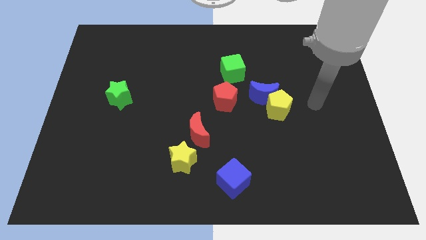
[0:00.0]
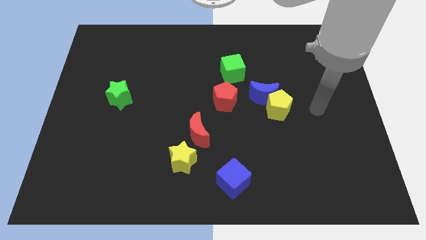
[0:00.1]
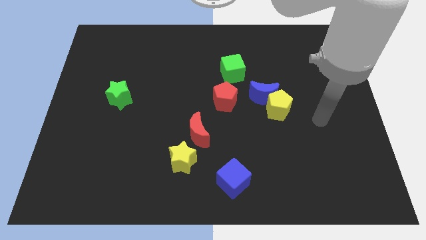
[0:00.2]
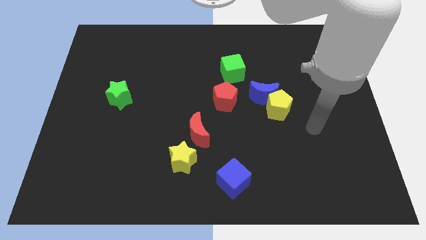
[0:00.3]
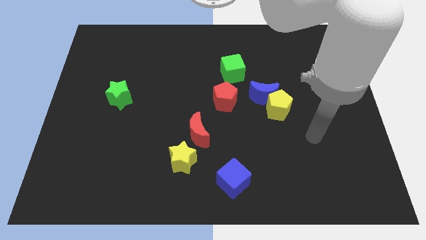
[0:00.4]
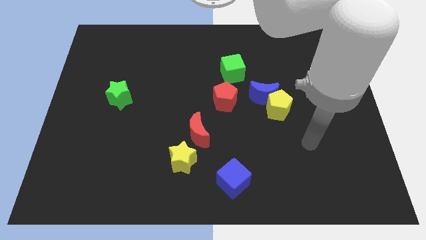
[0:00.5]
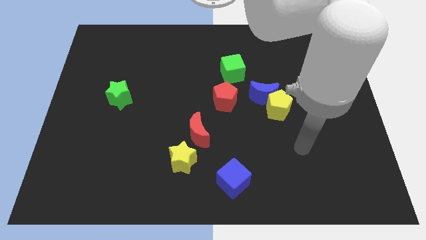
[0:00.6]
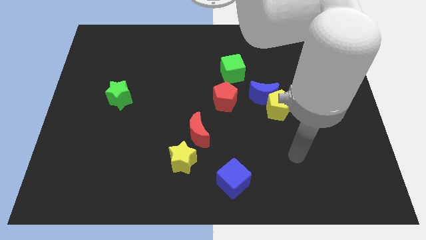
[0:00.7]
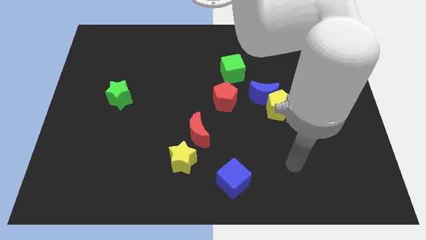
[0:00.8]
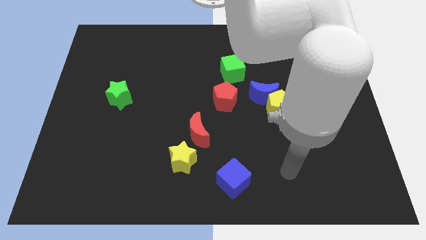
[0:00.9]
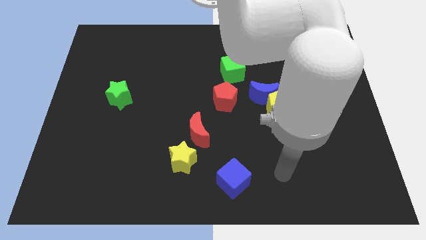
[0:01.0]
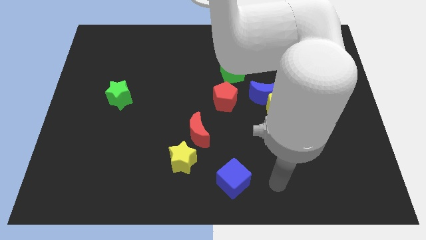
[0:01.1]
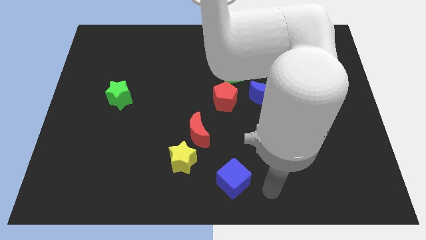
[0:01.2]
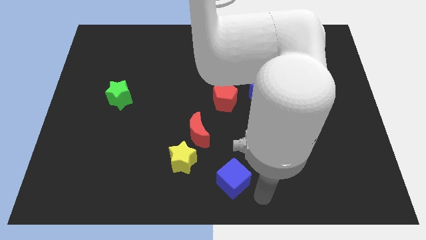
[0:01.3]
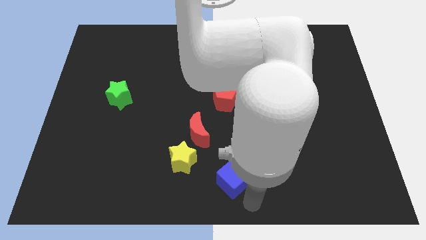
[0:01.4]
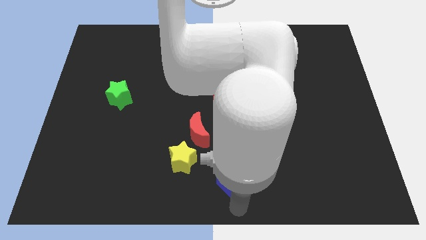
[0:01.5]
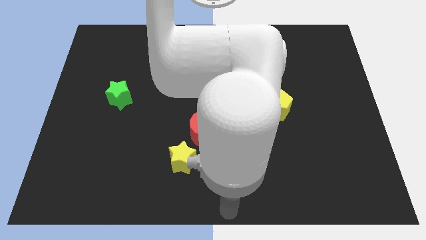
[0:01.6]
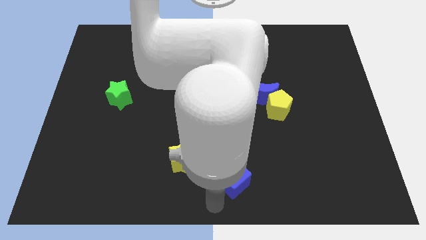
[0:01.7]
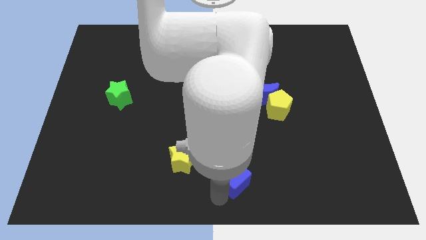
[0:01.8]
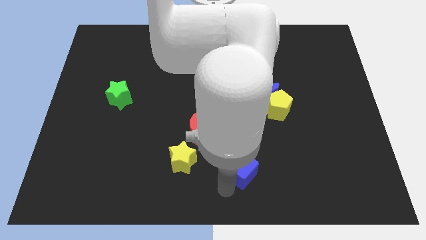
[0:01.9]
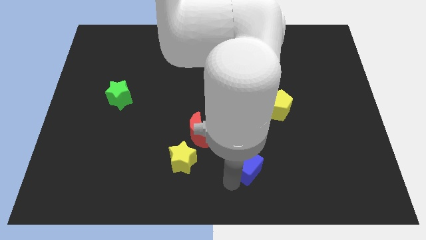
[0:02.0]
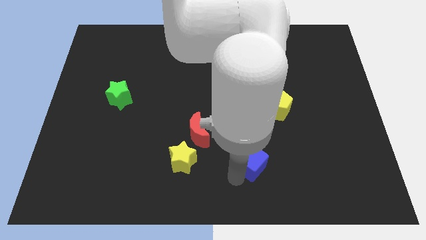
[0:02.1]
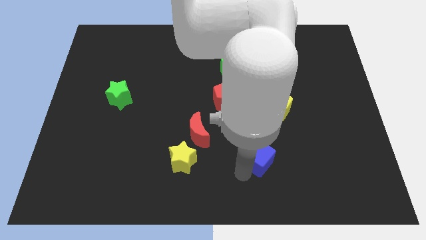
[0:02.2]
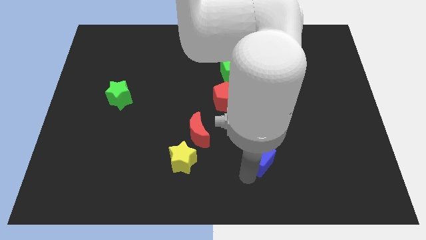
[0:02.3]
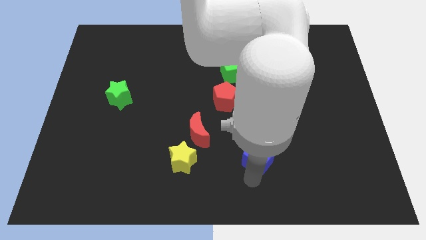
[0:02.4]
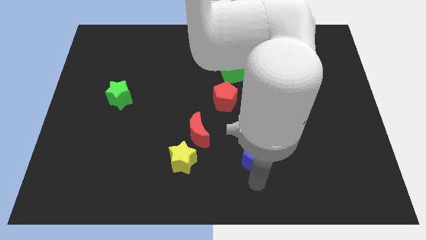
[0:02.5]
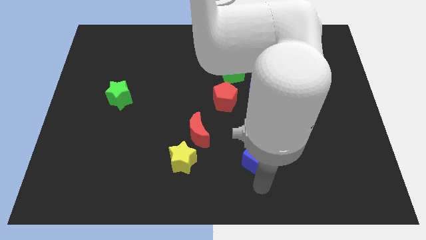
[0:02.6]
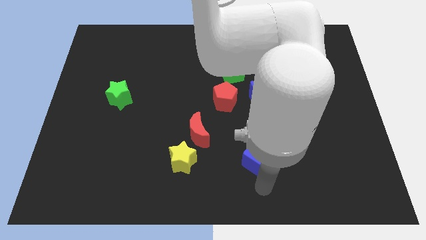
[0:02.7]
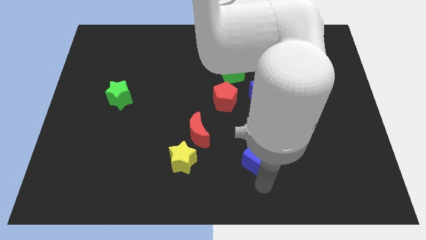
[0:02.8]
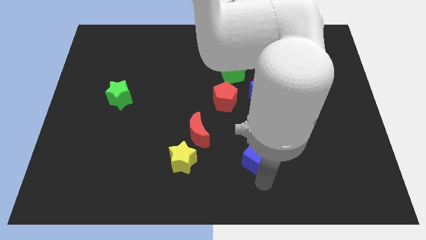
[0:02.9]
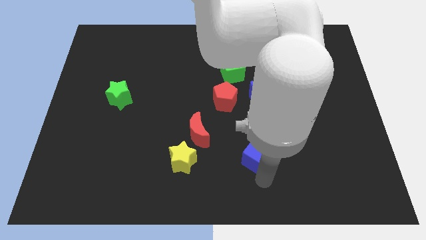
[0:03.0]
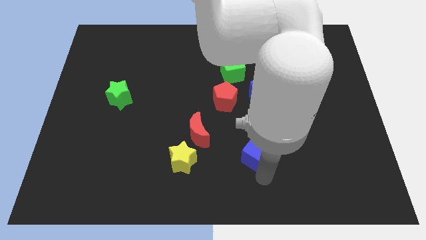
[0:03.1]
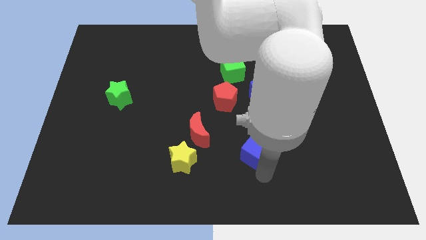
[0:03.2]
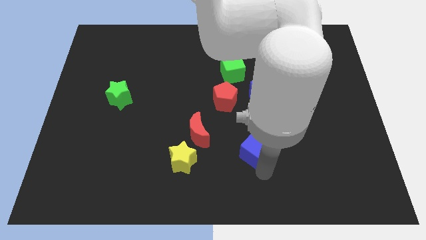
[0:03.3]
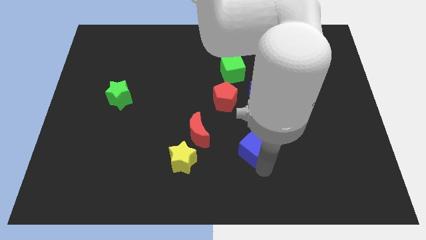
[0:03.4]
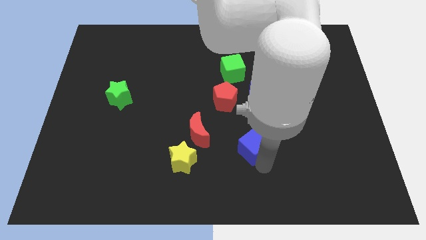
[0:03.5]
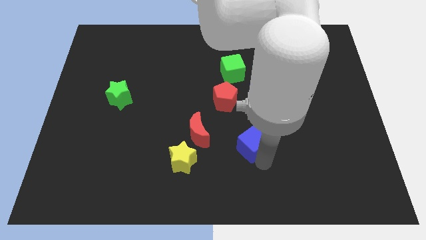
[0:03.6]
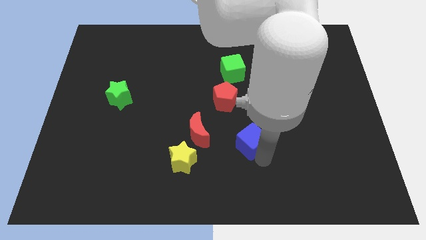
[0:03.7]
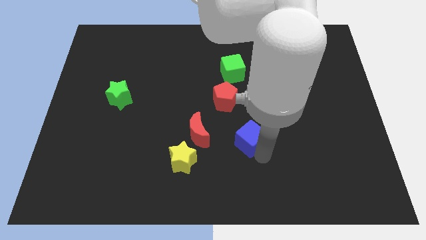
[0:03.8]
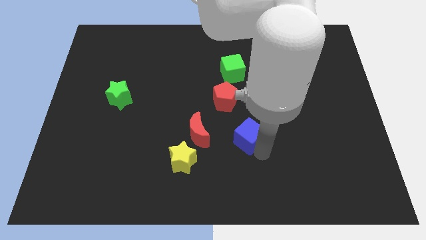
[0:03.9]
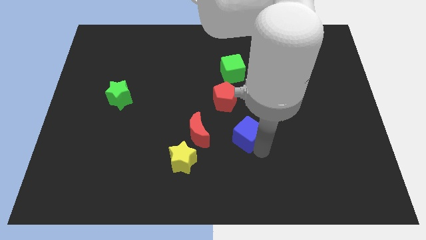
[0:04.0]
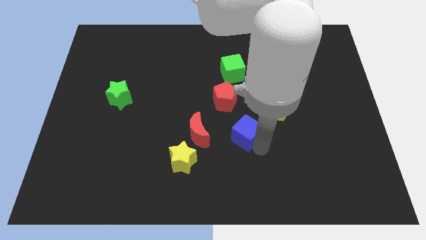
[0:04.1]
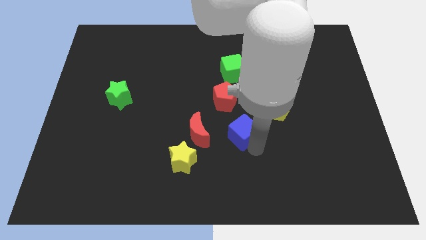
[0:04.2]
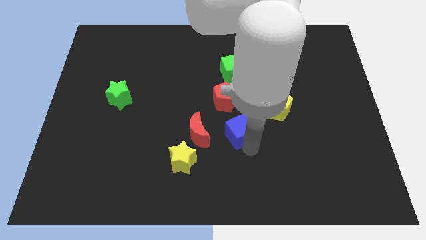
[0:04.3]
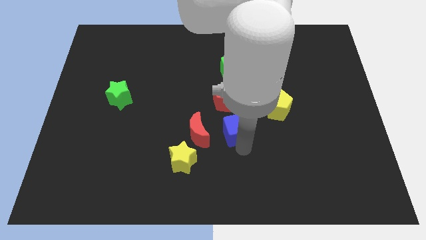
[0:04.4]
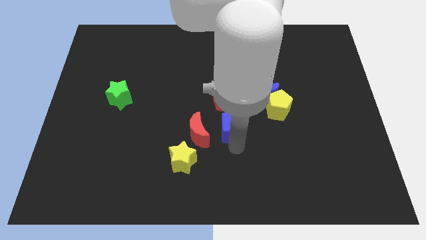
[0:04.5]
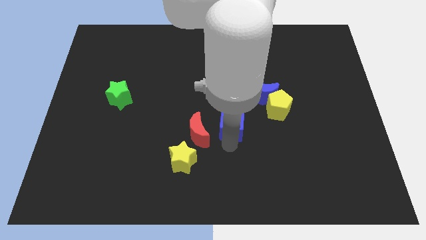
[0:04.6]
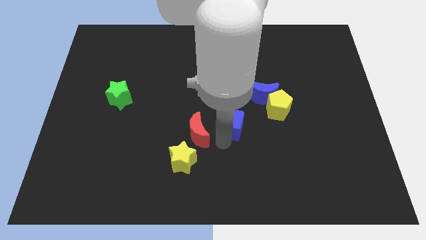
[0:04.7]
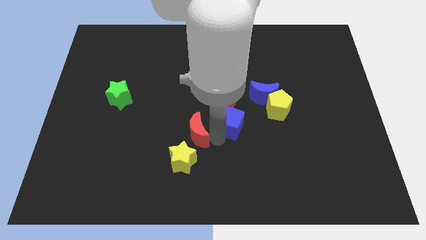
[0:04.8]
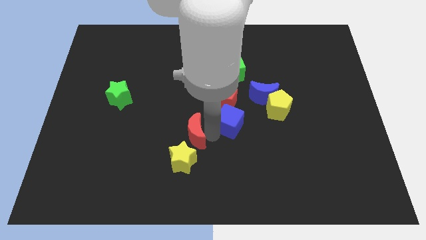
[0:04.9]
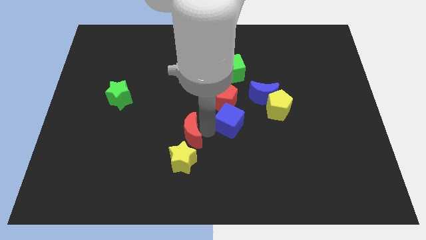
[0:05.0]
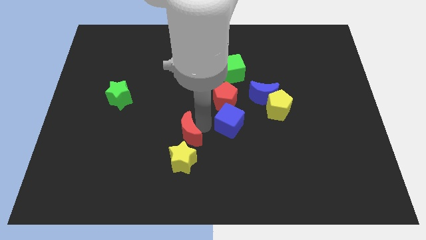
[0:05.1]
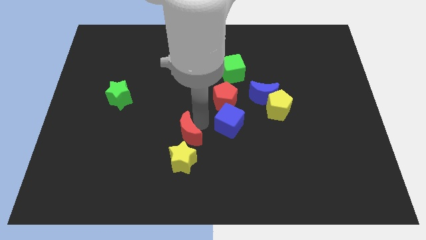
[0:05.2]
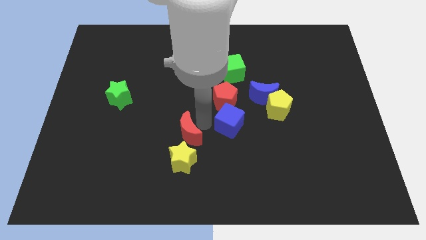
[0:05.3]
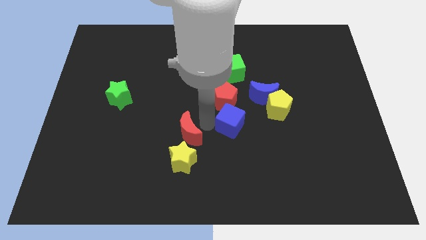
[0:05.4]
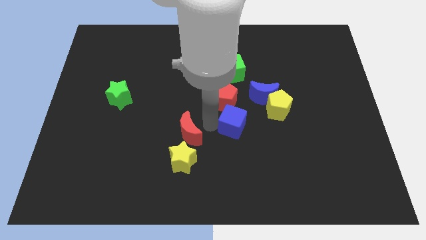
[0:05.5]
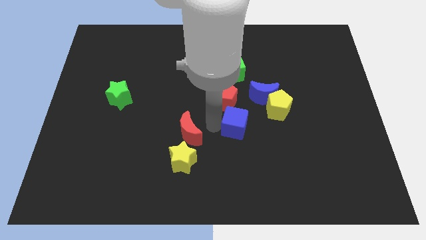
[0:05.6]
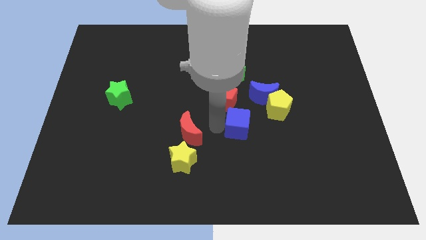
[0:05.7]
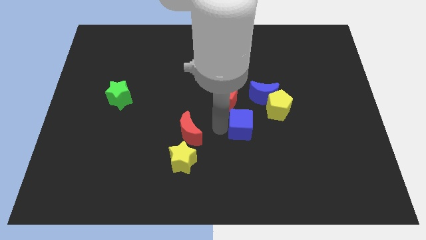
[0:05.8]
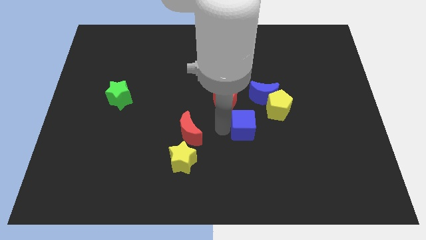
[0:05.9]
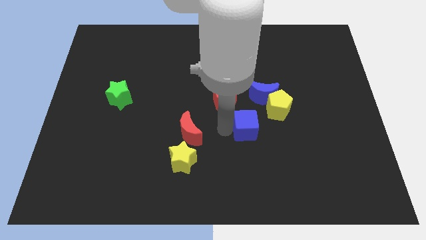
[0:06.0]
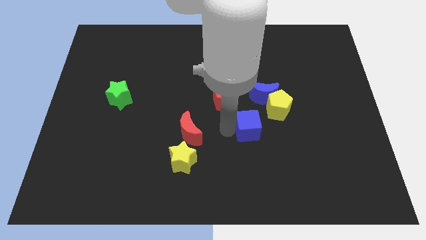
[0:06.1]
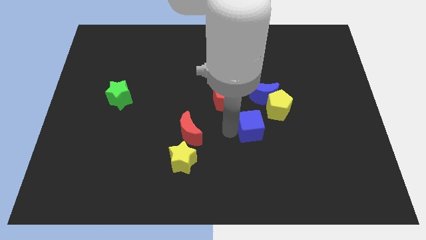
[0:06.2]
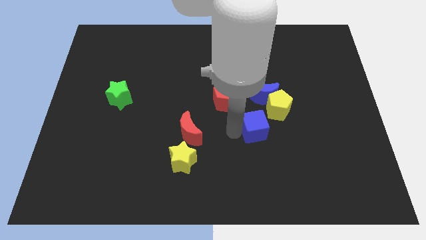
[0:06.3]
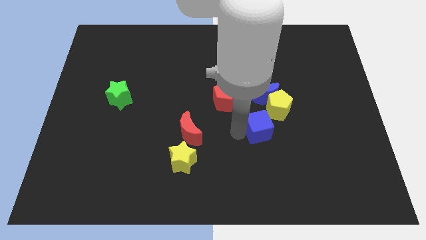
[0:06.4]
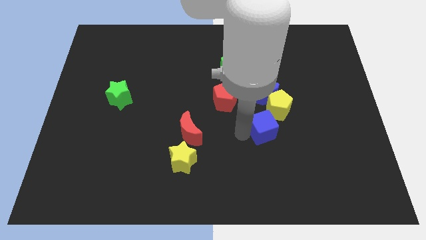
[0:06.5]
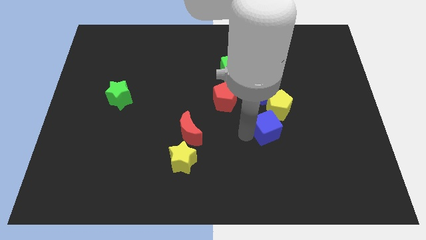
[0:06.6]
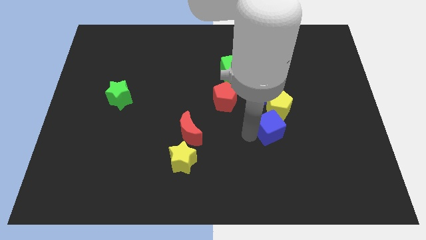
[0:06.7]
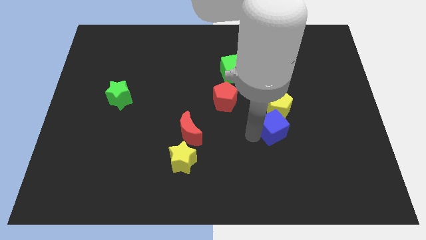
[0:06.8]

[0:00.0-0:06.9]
move the blue cube next to the yellow pentagon
